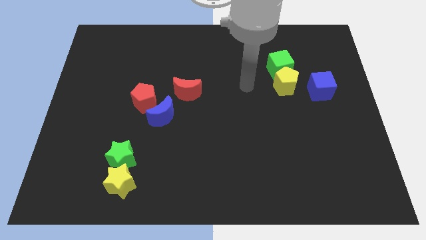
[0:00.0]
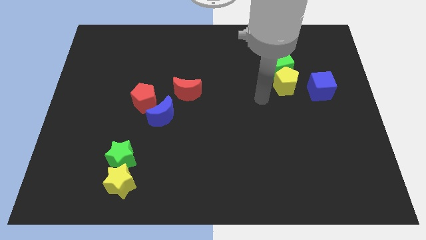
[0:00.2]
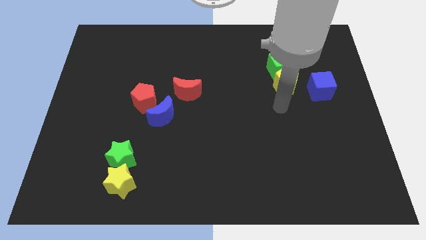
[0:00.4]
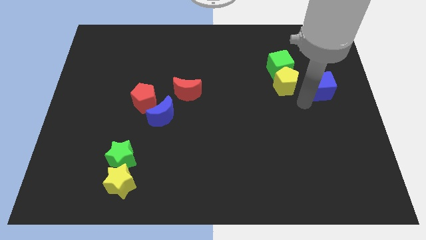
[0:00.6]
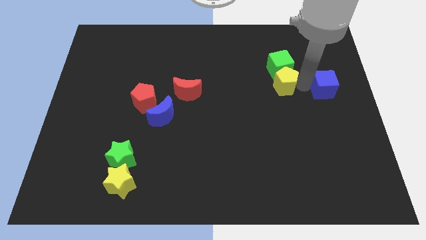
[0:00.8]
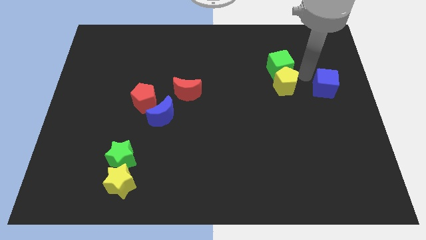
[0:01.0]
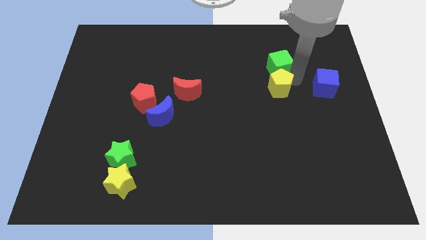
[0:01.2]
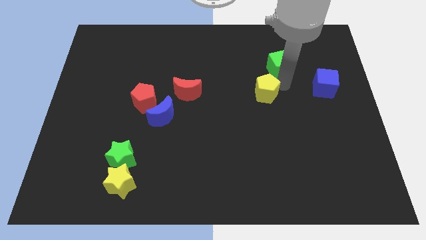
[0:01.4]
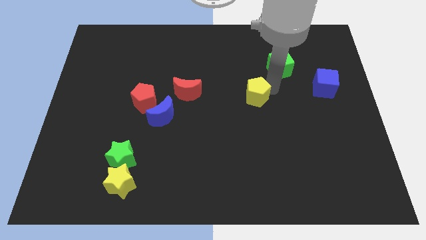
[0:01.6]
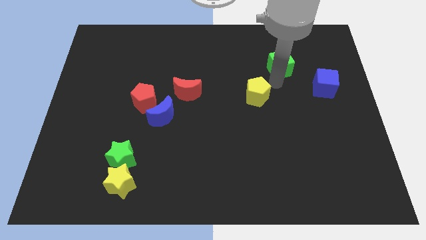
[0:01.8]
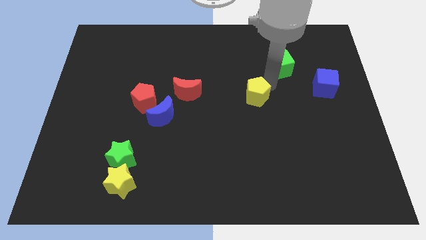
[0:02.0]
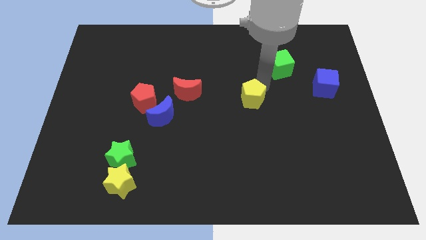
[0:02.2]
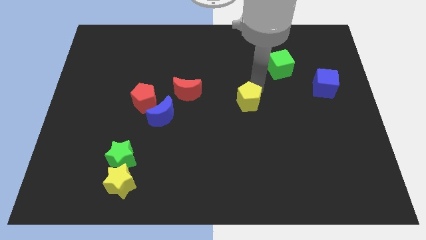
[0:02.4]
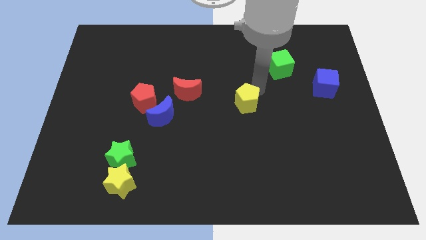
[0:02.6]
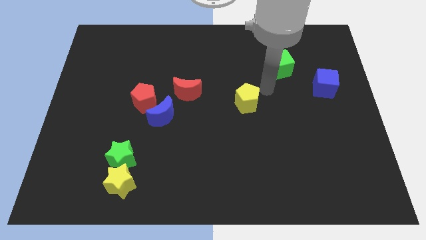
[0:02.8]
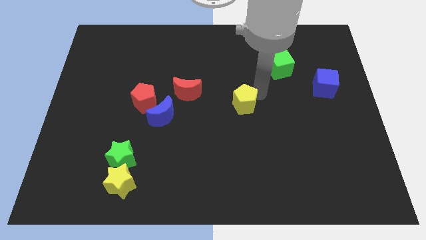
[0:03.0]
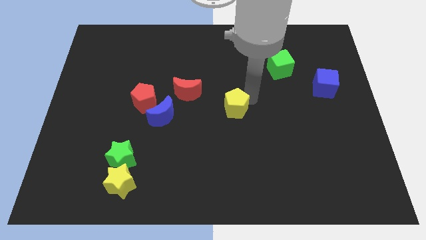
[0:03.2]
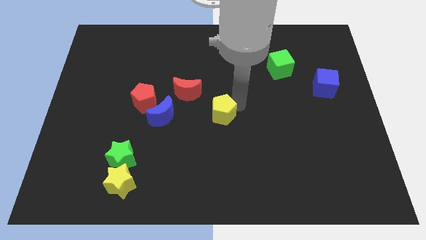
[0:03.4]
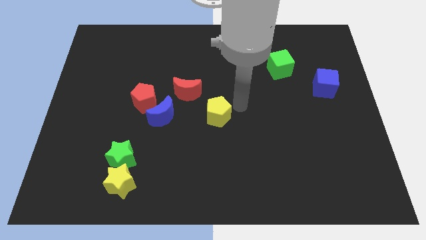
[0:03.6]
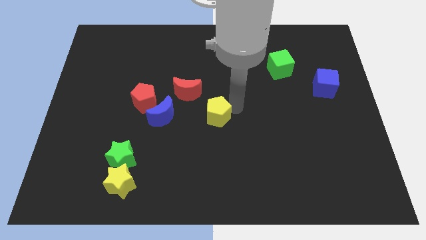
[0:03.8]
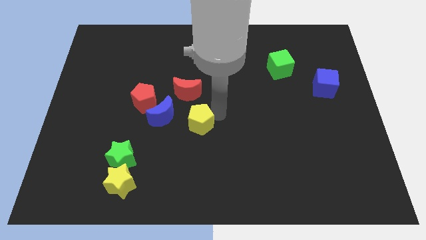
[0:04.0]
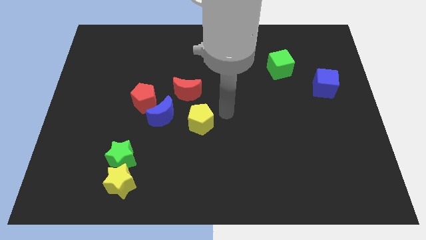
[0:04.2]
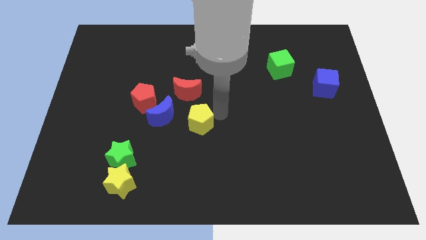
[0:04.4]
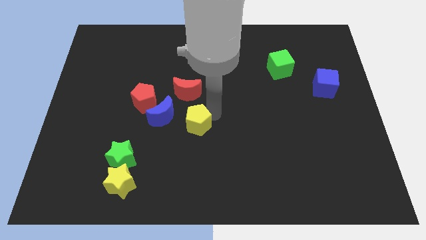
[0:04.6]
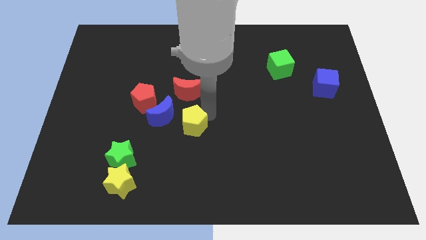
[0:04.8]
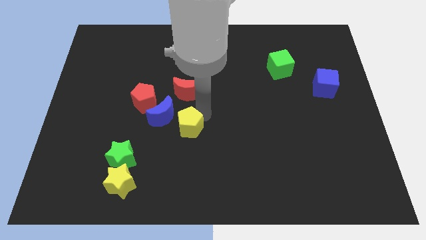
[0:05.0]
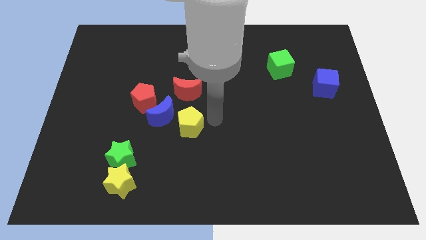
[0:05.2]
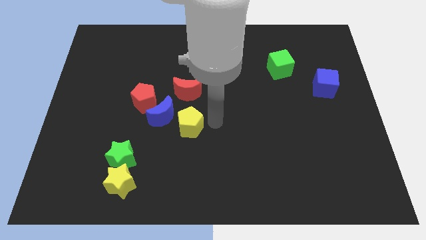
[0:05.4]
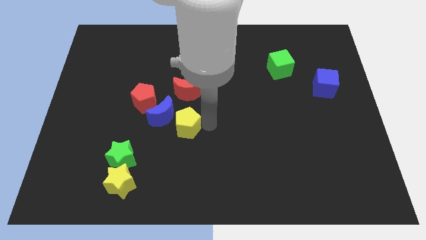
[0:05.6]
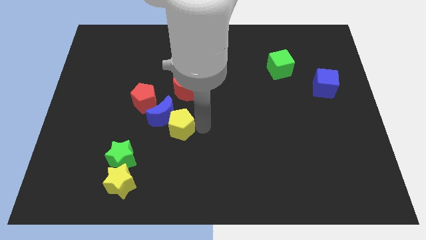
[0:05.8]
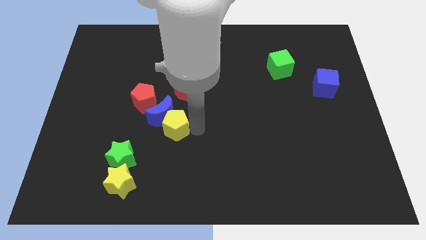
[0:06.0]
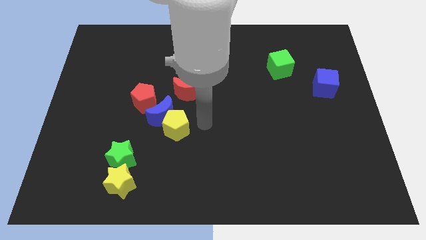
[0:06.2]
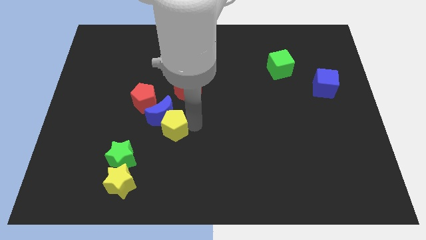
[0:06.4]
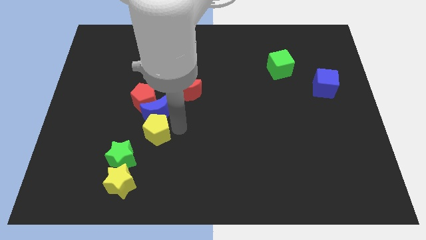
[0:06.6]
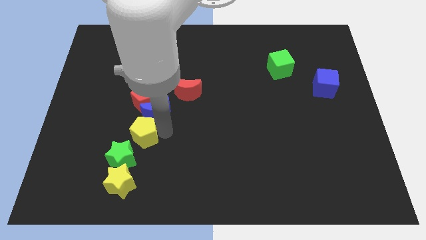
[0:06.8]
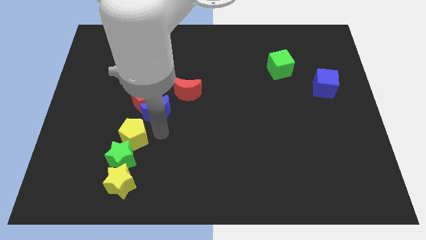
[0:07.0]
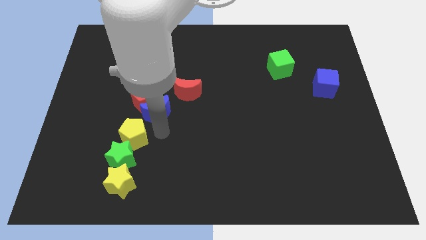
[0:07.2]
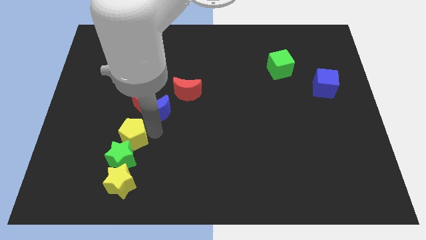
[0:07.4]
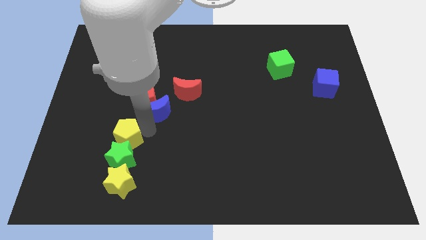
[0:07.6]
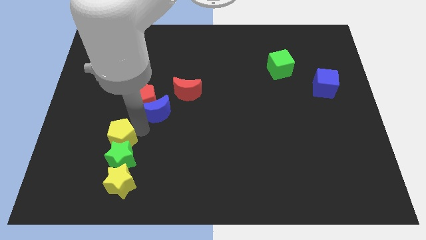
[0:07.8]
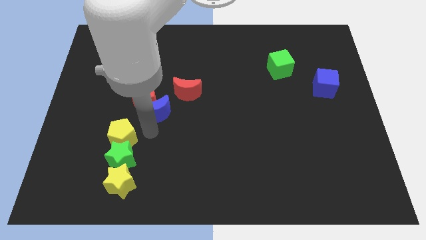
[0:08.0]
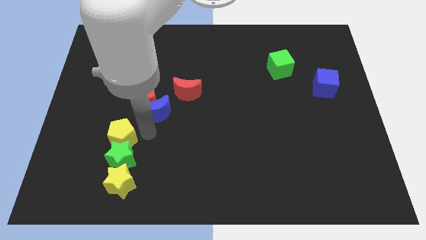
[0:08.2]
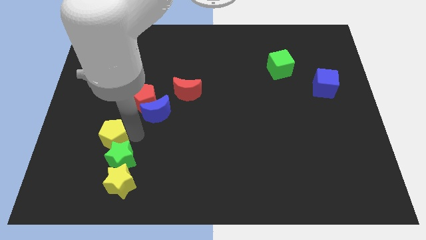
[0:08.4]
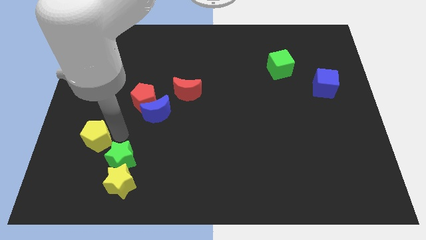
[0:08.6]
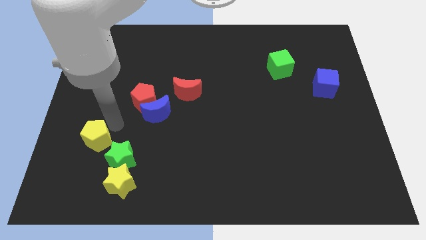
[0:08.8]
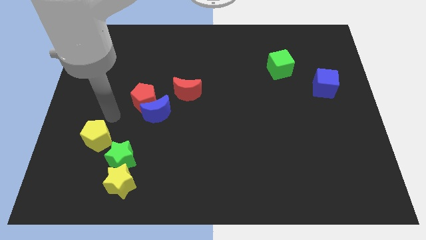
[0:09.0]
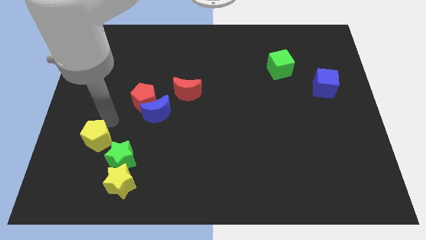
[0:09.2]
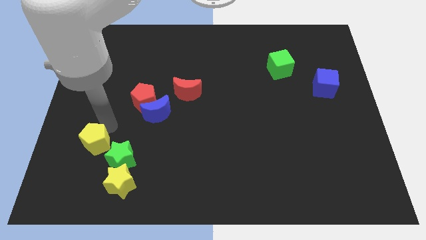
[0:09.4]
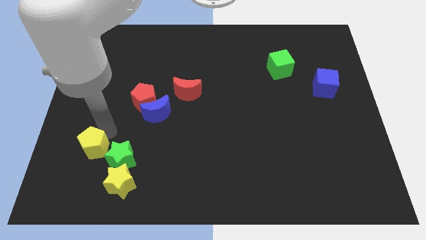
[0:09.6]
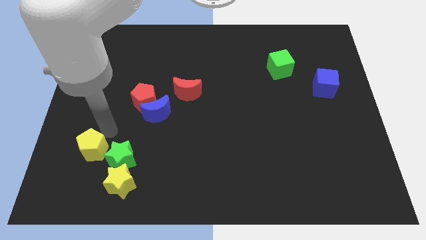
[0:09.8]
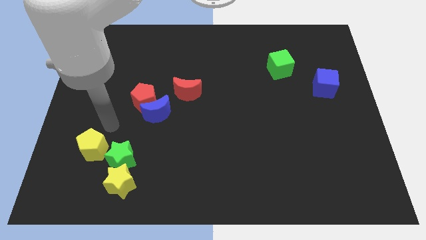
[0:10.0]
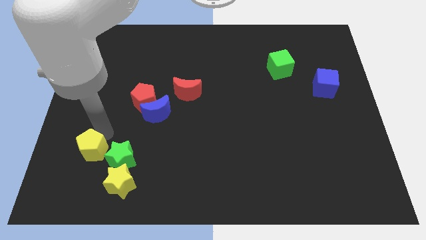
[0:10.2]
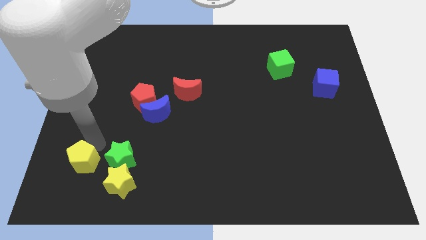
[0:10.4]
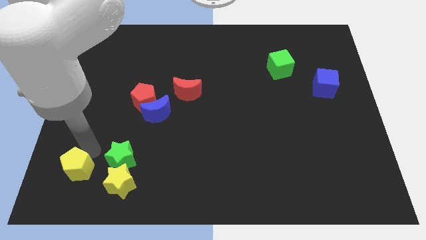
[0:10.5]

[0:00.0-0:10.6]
push the yellow pentagon just left of the yellow star

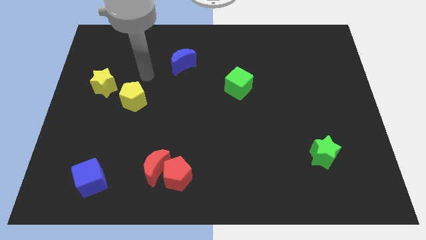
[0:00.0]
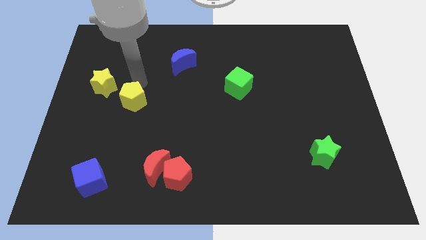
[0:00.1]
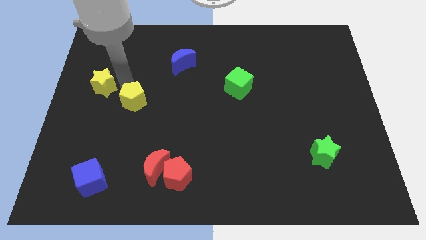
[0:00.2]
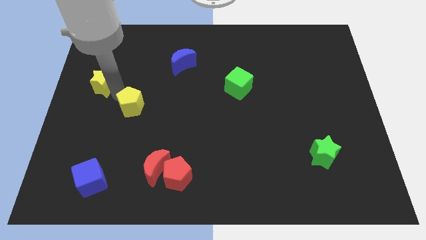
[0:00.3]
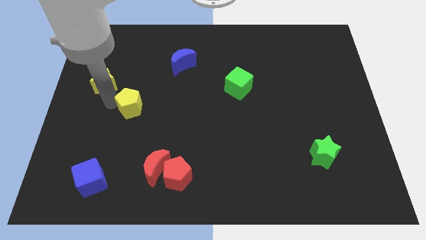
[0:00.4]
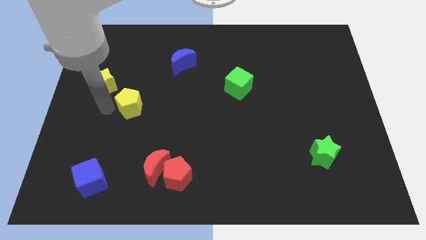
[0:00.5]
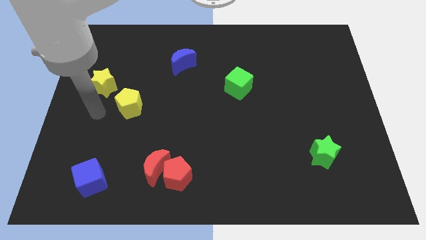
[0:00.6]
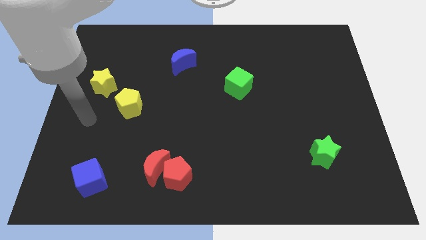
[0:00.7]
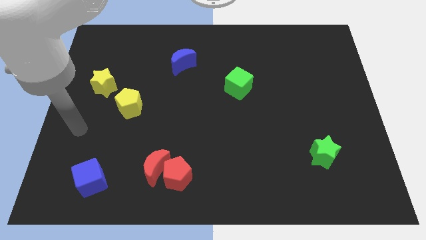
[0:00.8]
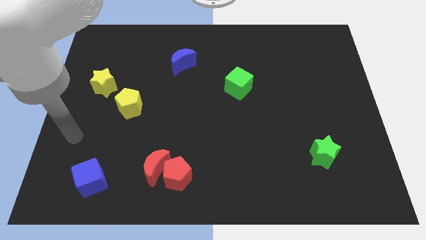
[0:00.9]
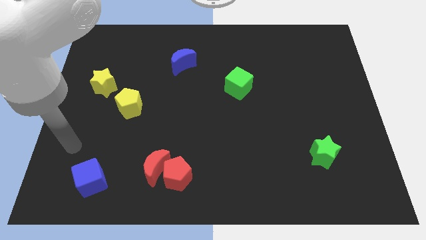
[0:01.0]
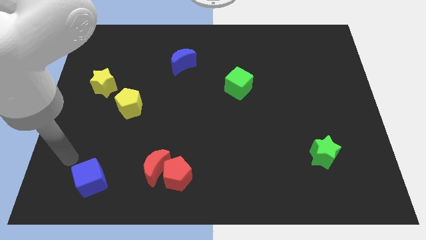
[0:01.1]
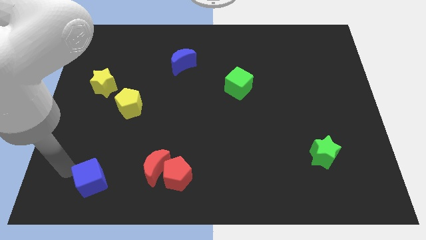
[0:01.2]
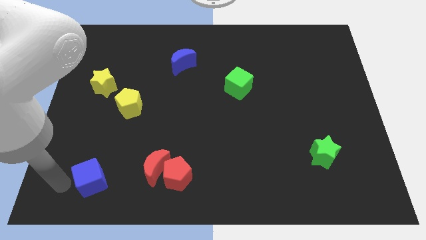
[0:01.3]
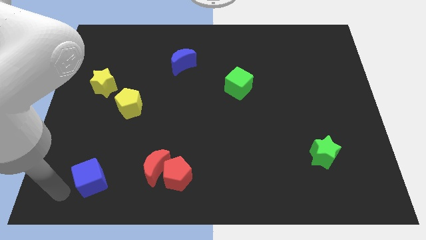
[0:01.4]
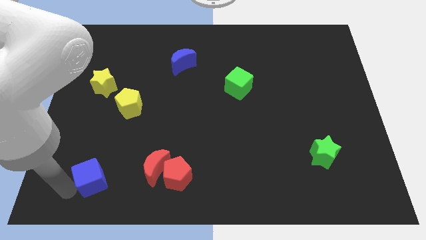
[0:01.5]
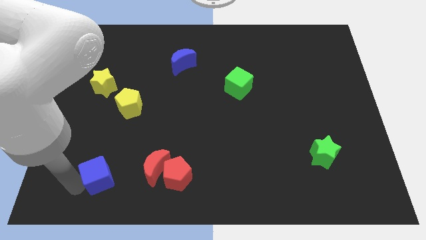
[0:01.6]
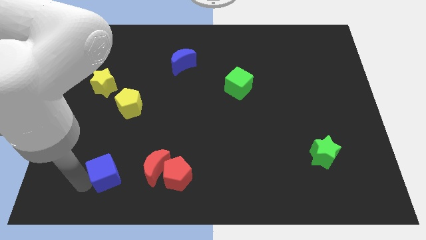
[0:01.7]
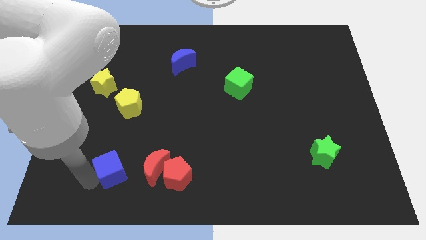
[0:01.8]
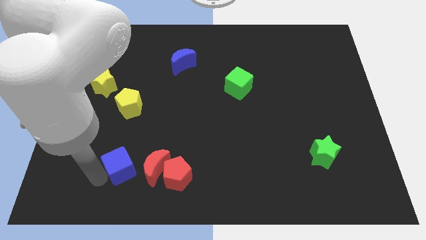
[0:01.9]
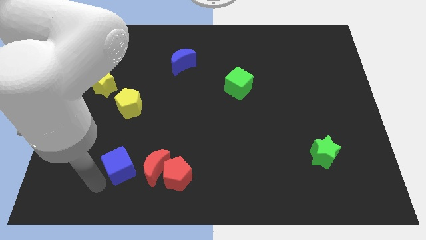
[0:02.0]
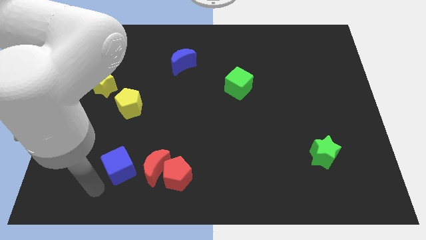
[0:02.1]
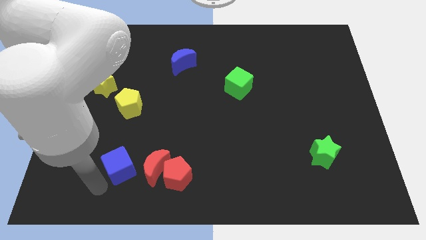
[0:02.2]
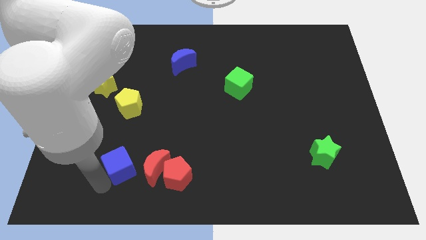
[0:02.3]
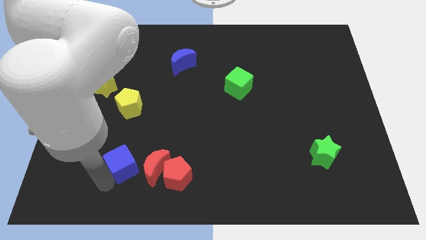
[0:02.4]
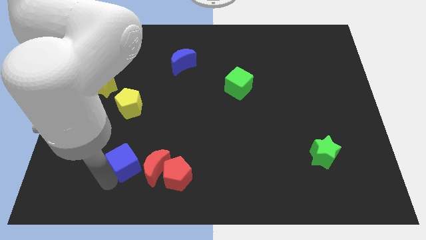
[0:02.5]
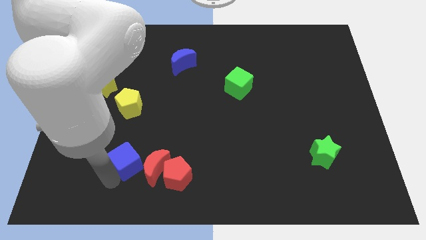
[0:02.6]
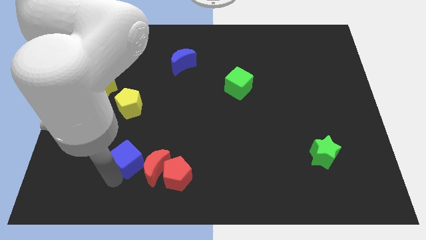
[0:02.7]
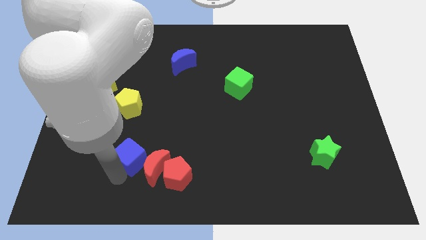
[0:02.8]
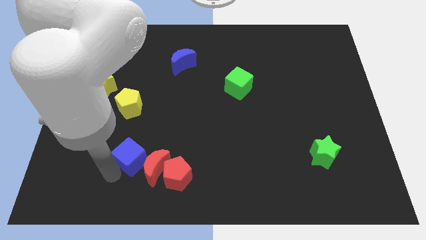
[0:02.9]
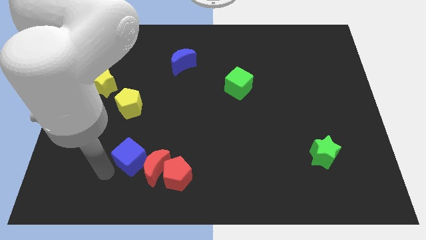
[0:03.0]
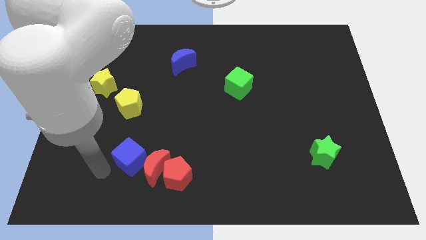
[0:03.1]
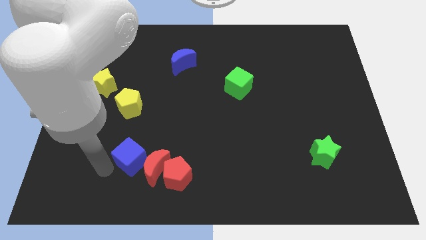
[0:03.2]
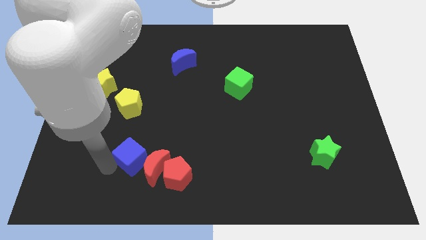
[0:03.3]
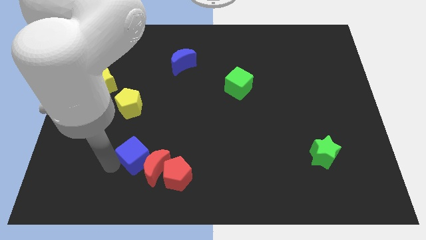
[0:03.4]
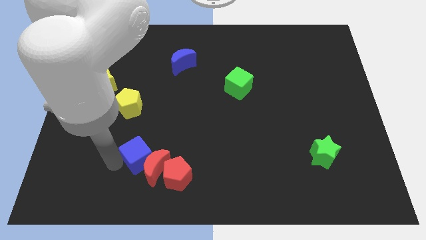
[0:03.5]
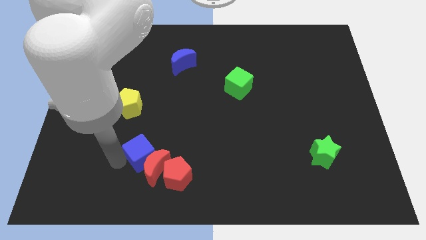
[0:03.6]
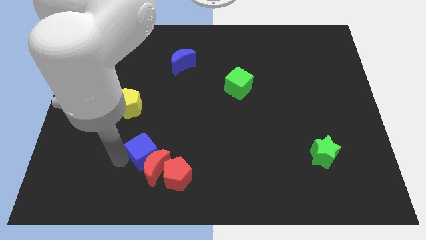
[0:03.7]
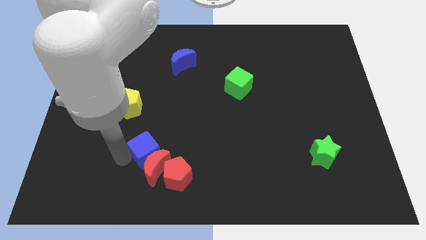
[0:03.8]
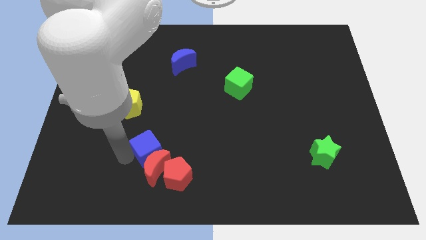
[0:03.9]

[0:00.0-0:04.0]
push the blue cube diagonally up and to the right of the red moon
